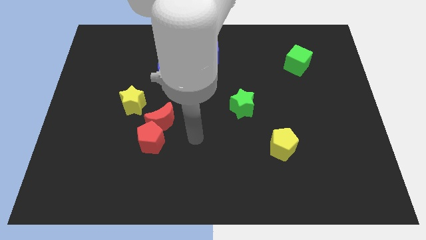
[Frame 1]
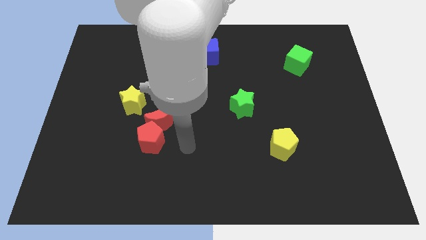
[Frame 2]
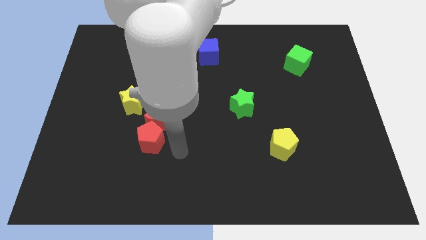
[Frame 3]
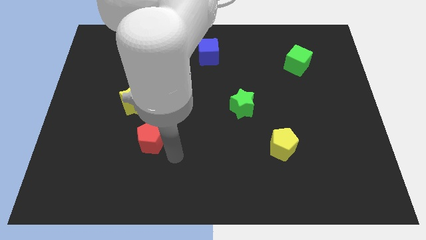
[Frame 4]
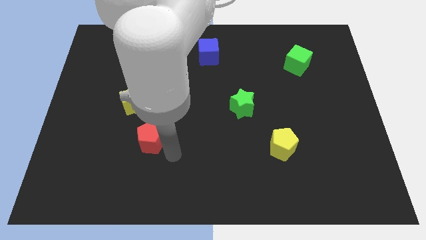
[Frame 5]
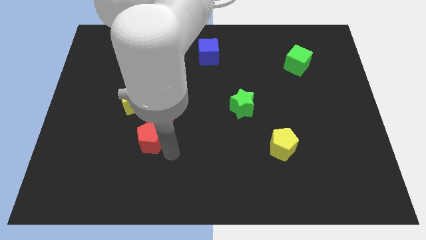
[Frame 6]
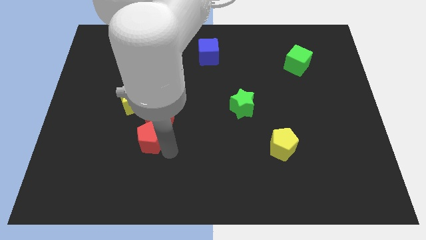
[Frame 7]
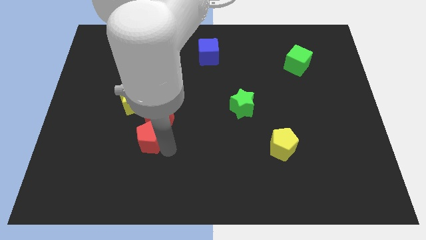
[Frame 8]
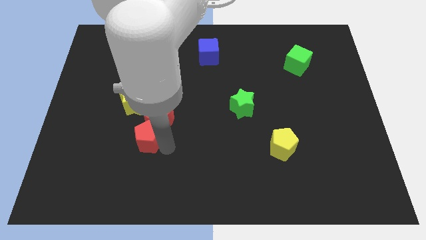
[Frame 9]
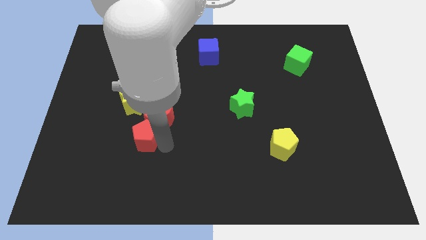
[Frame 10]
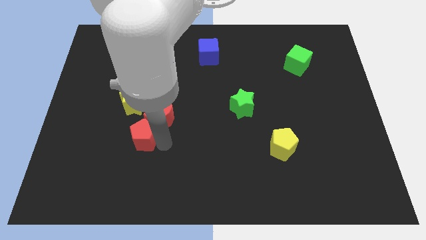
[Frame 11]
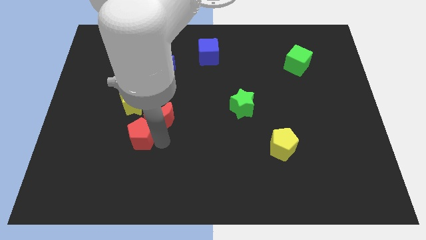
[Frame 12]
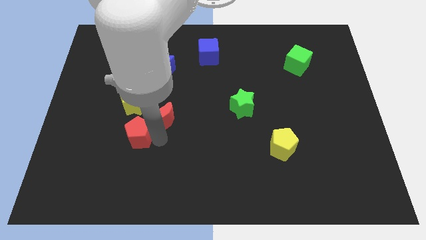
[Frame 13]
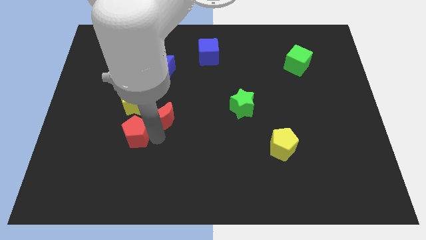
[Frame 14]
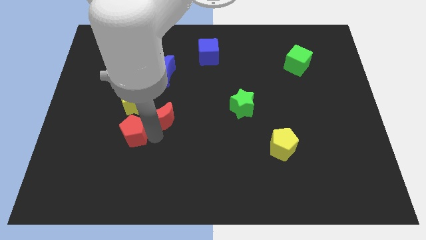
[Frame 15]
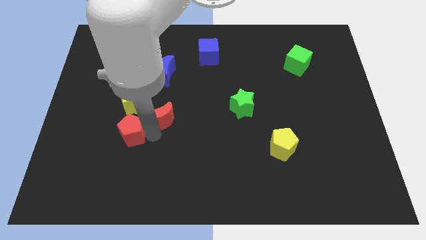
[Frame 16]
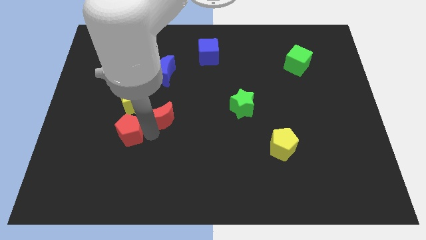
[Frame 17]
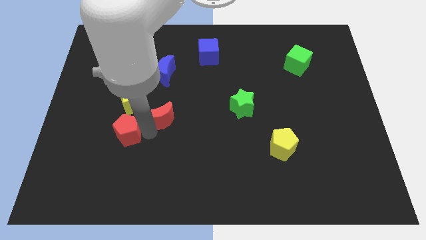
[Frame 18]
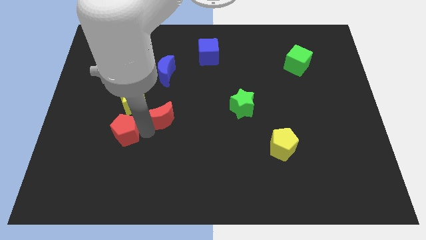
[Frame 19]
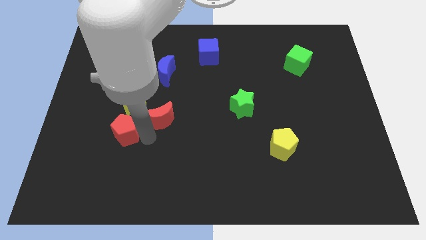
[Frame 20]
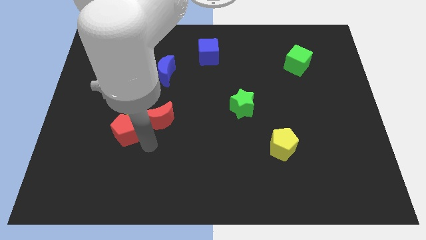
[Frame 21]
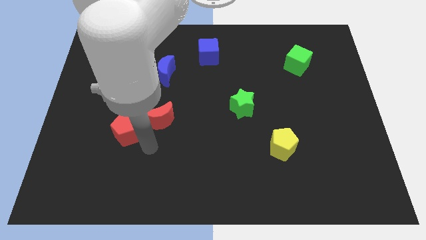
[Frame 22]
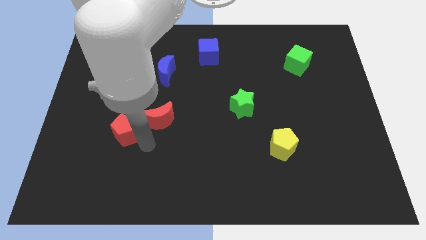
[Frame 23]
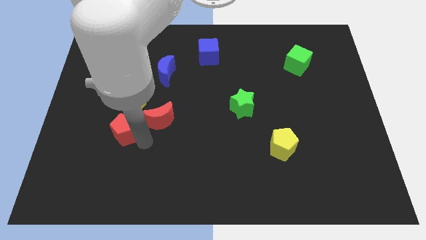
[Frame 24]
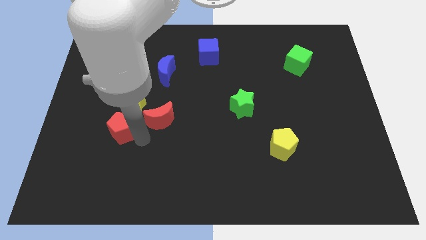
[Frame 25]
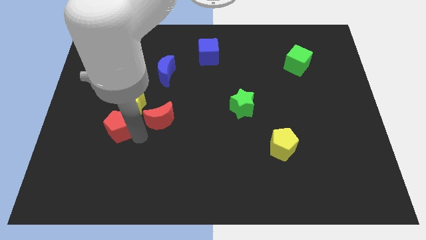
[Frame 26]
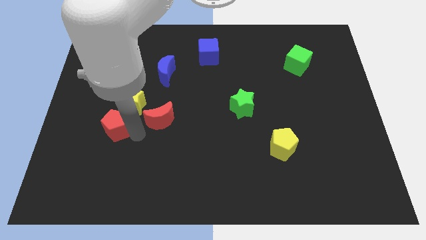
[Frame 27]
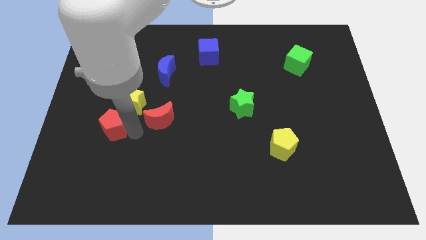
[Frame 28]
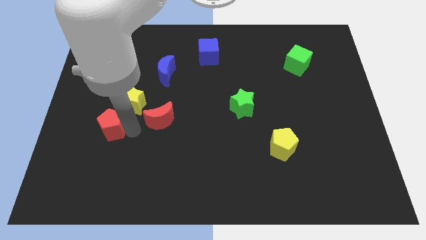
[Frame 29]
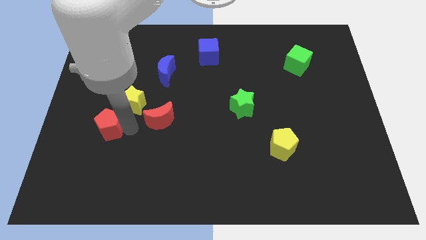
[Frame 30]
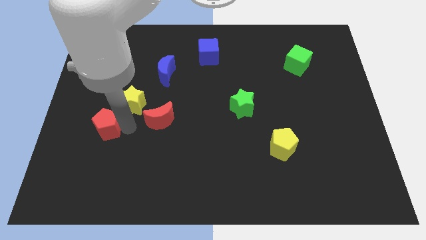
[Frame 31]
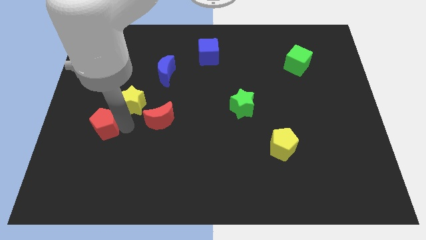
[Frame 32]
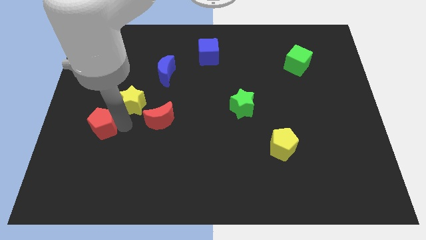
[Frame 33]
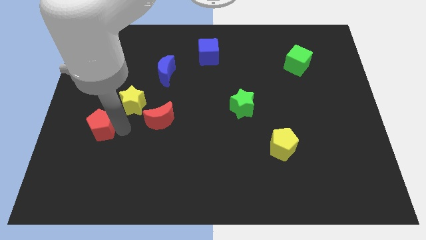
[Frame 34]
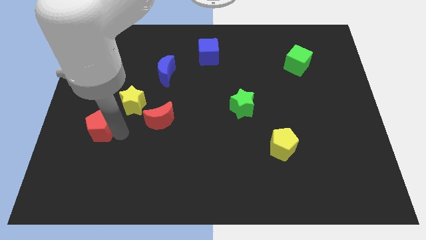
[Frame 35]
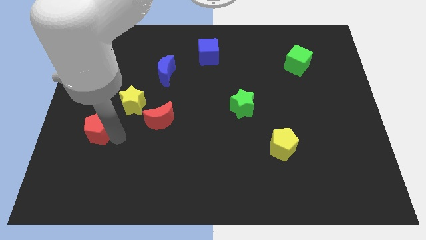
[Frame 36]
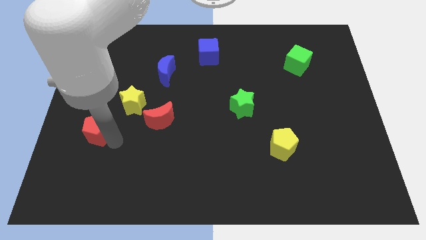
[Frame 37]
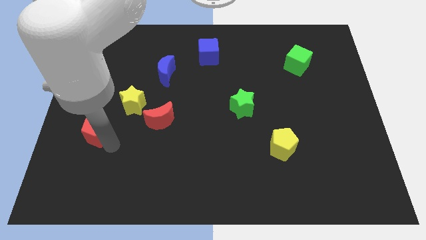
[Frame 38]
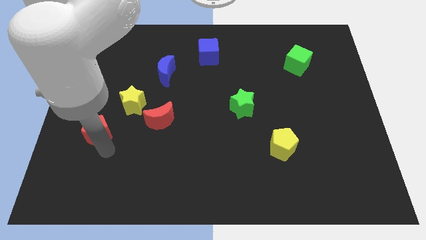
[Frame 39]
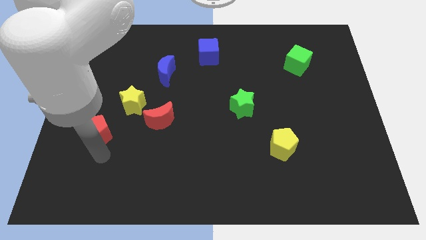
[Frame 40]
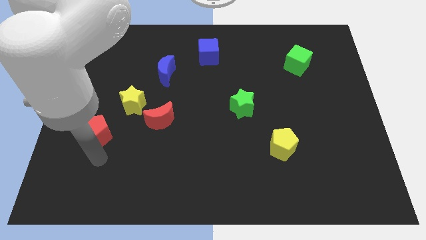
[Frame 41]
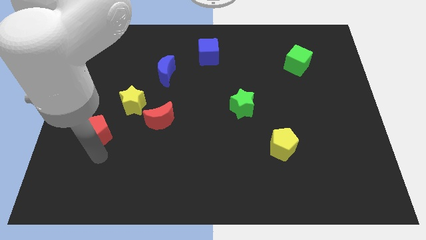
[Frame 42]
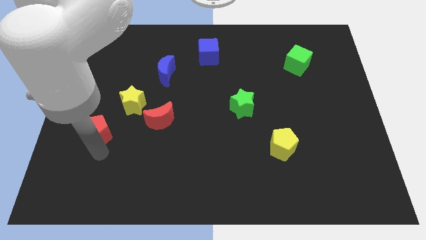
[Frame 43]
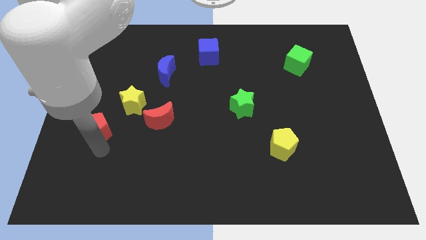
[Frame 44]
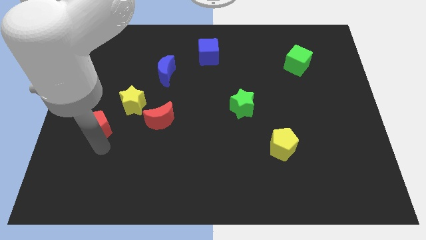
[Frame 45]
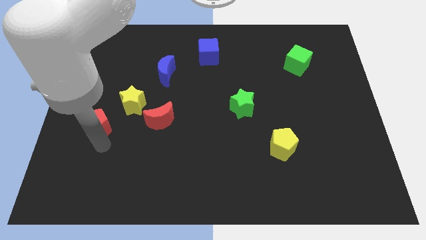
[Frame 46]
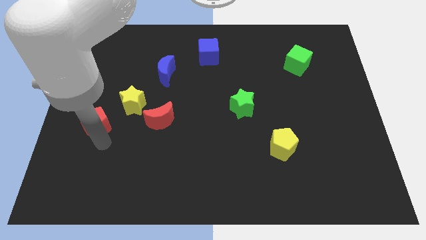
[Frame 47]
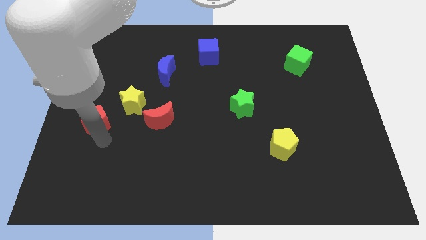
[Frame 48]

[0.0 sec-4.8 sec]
put the red pentagon to the center left

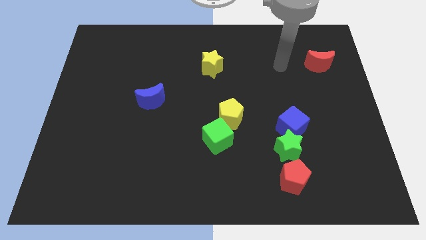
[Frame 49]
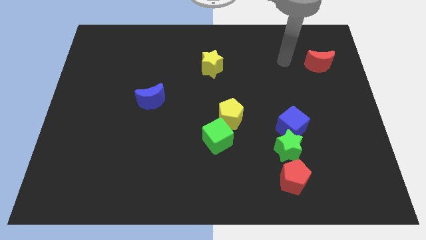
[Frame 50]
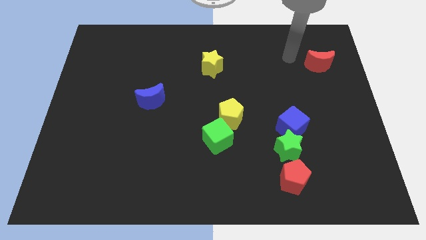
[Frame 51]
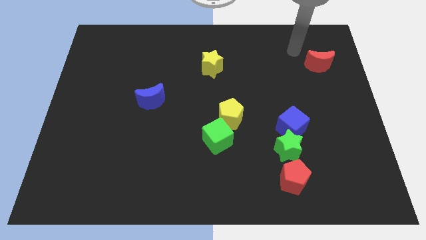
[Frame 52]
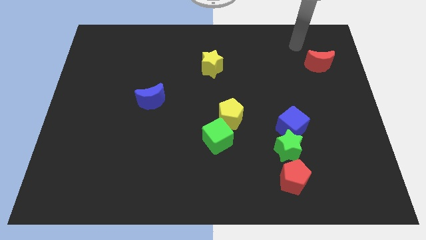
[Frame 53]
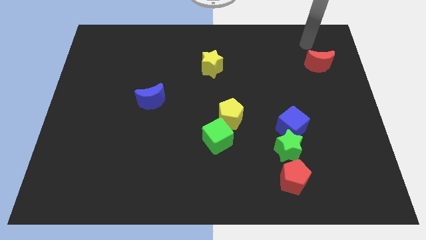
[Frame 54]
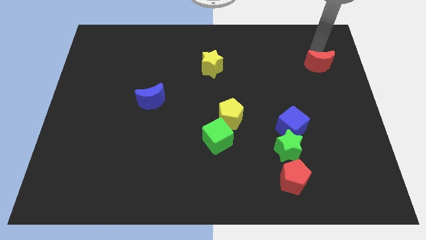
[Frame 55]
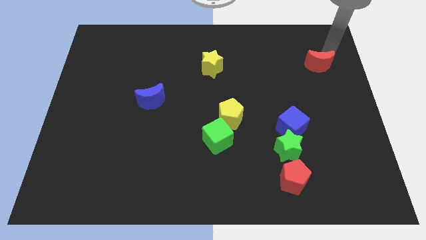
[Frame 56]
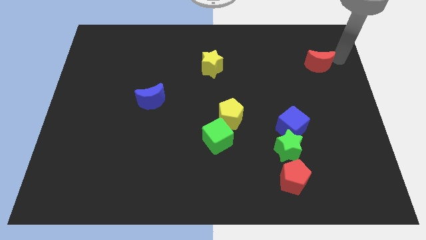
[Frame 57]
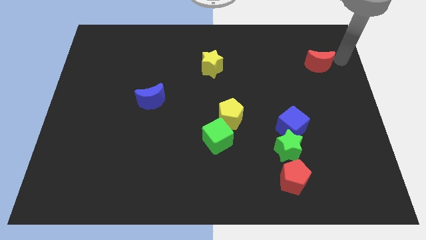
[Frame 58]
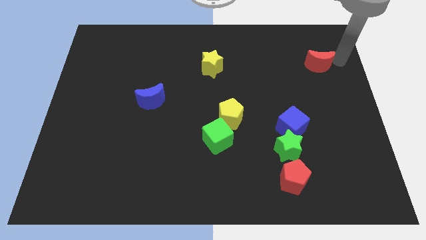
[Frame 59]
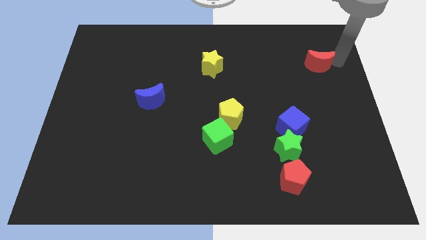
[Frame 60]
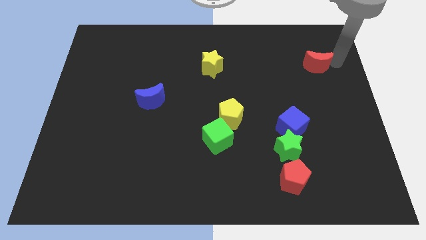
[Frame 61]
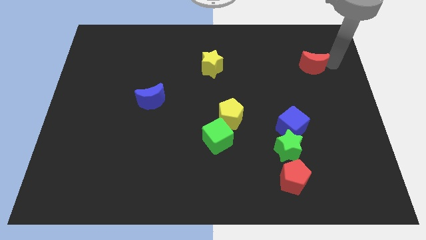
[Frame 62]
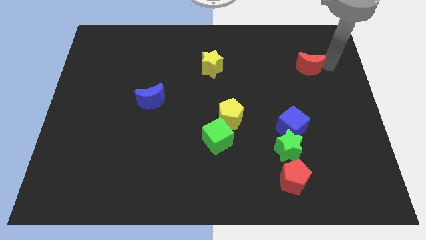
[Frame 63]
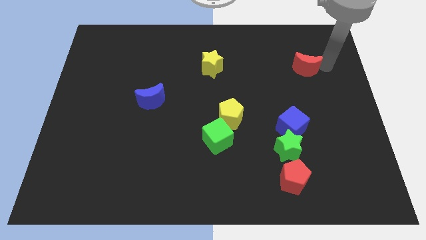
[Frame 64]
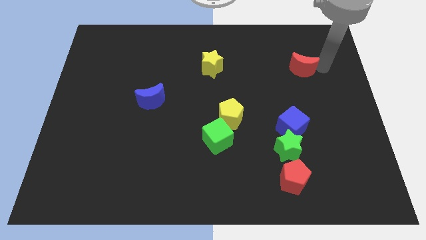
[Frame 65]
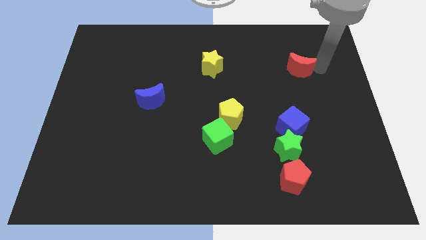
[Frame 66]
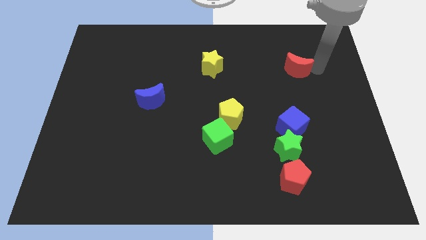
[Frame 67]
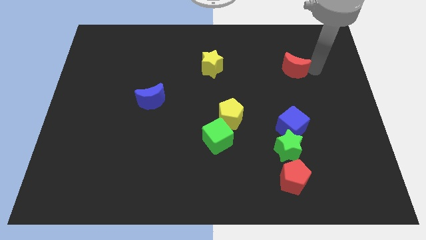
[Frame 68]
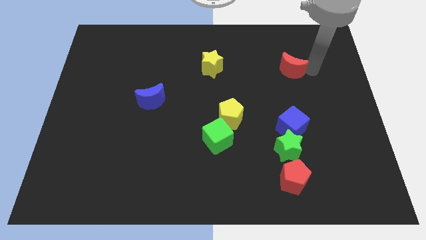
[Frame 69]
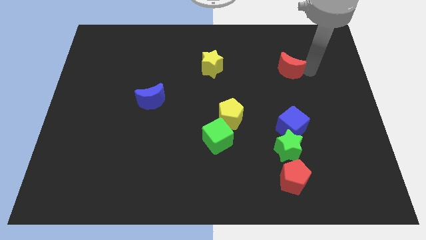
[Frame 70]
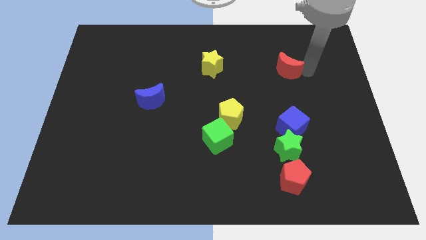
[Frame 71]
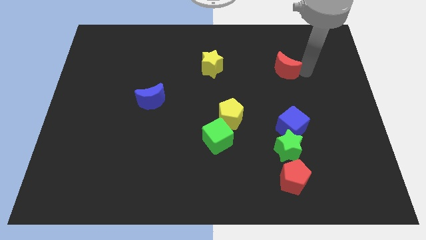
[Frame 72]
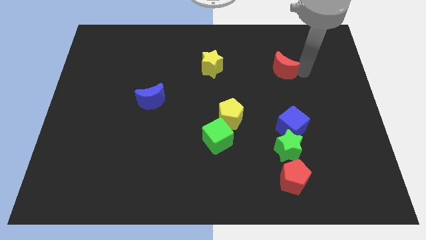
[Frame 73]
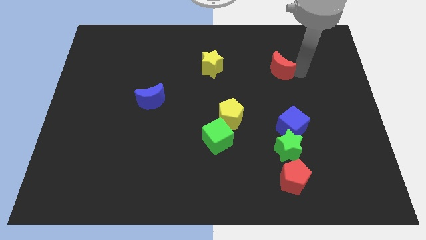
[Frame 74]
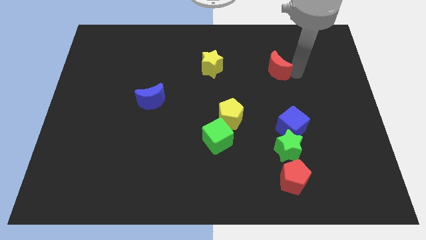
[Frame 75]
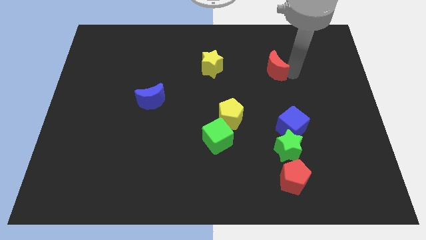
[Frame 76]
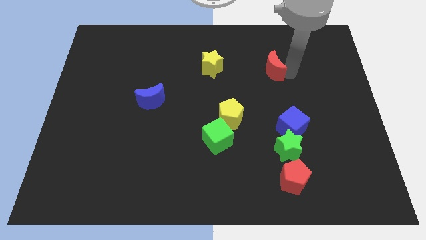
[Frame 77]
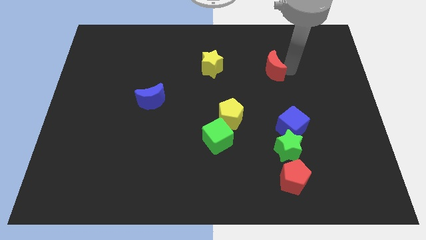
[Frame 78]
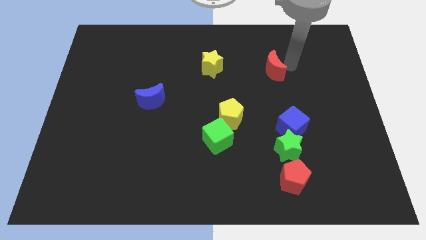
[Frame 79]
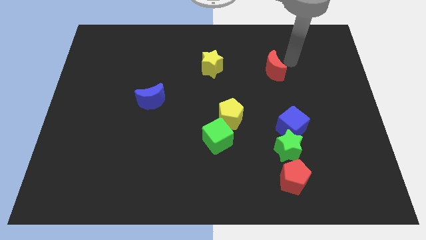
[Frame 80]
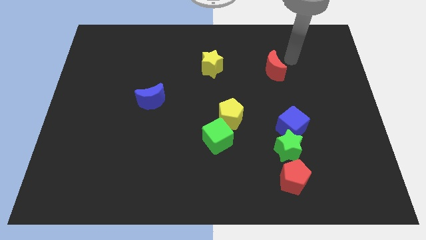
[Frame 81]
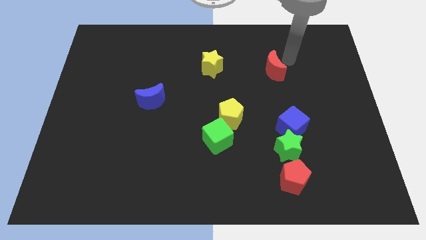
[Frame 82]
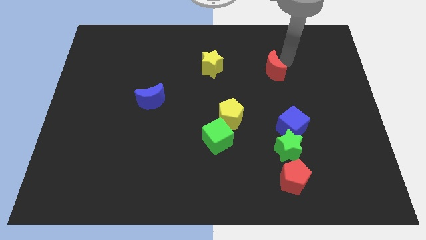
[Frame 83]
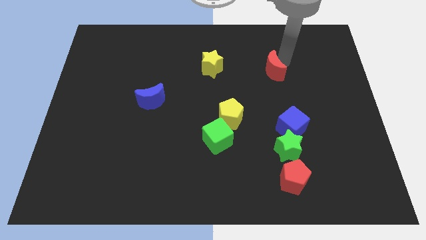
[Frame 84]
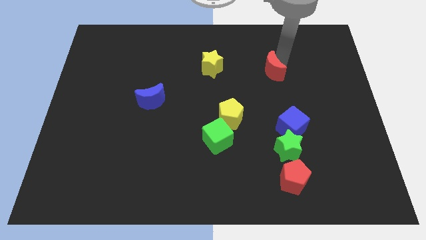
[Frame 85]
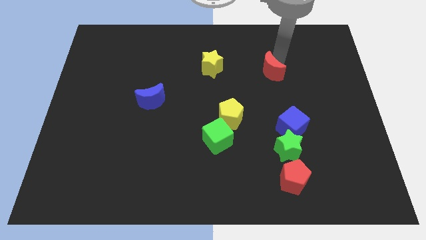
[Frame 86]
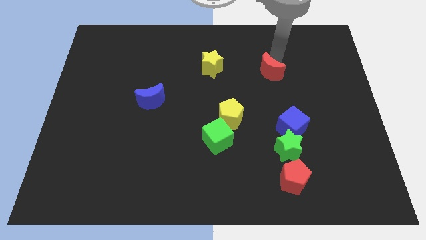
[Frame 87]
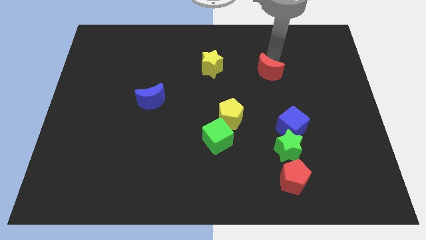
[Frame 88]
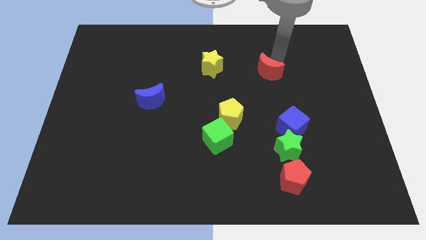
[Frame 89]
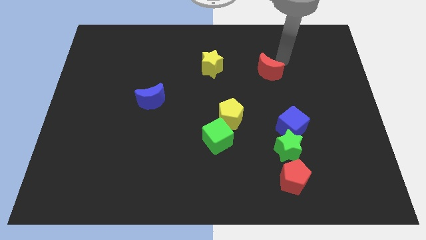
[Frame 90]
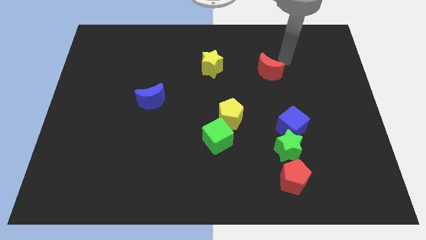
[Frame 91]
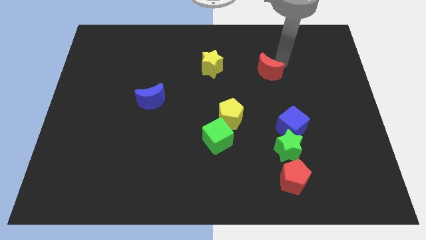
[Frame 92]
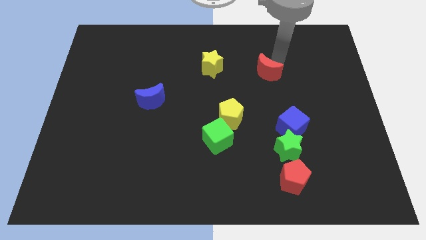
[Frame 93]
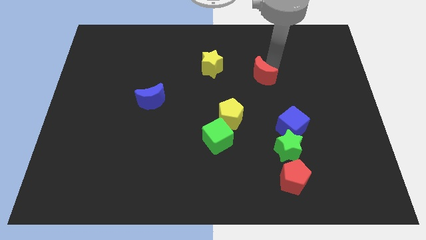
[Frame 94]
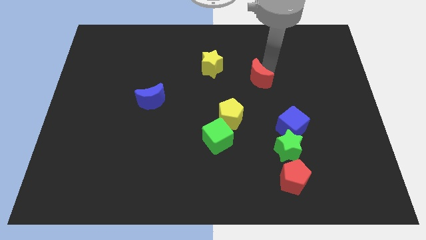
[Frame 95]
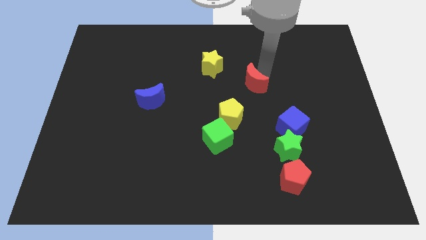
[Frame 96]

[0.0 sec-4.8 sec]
put the red moon to the center
